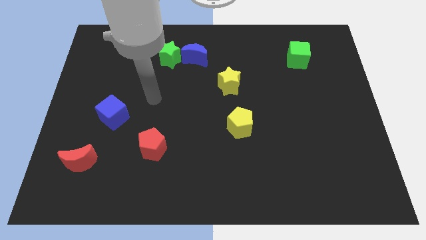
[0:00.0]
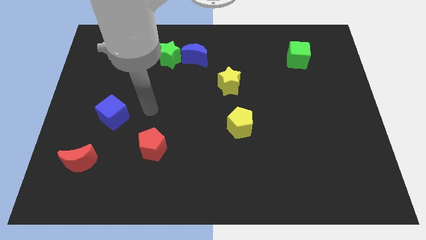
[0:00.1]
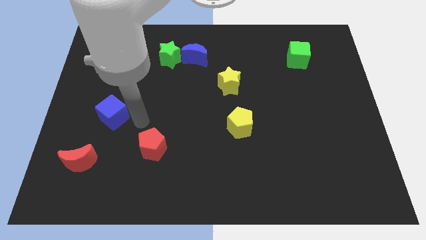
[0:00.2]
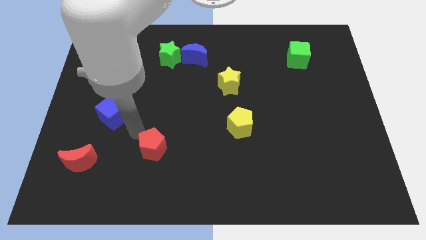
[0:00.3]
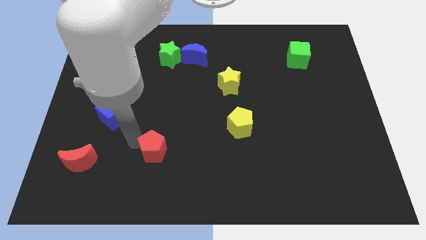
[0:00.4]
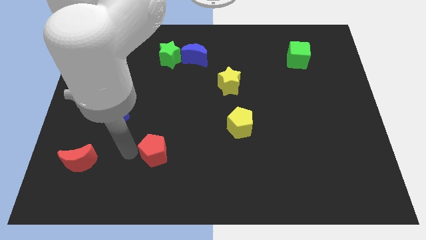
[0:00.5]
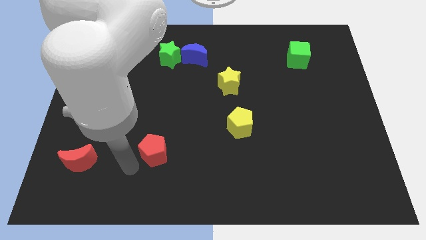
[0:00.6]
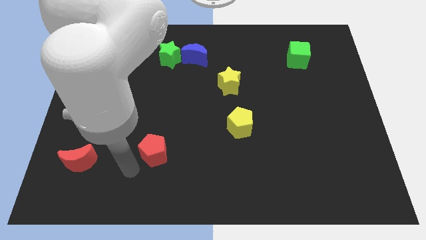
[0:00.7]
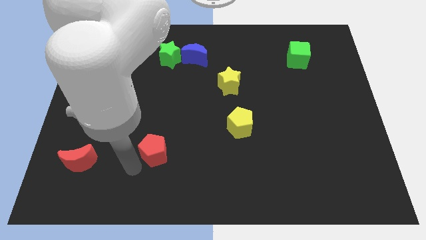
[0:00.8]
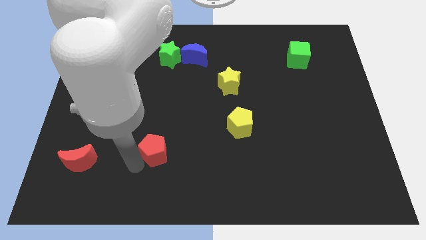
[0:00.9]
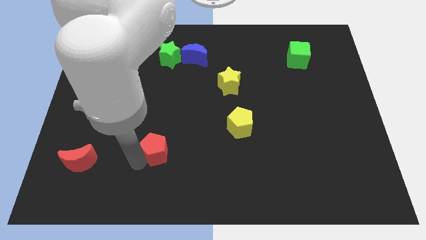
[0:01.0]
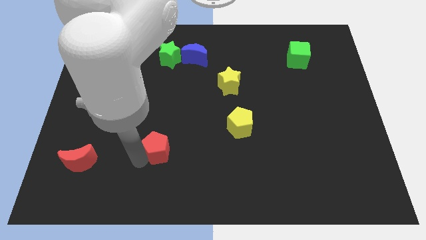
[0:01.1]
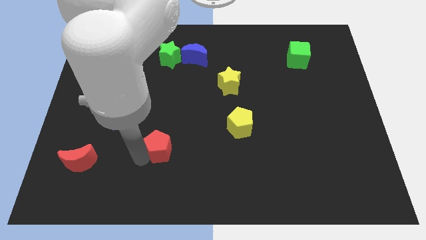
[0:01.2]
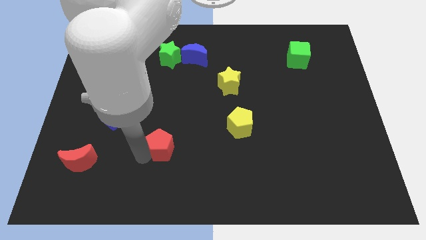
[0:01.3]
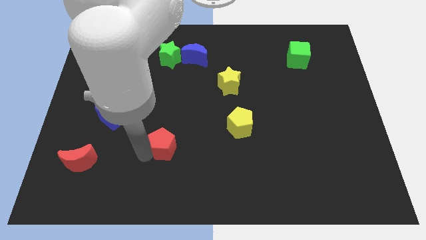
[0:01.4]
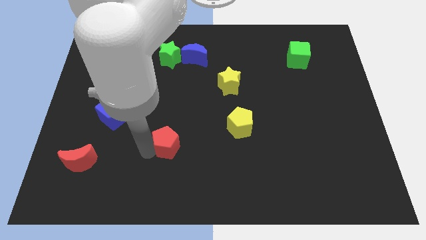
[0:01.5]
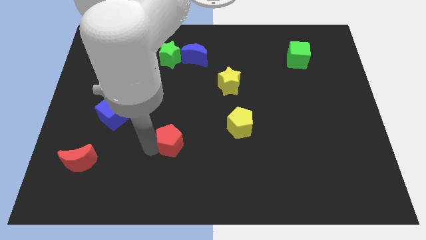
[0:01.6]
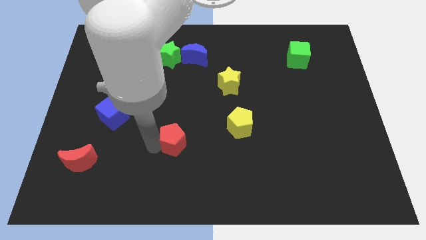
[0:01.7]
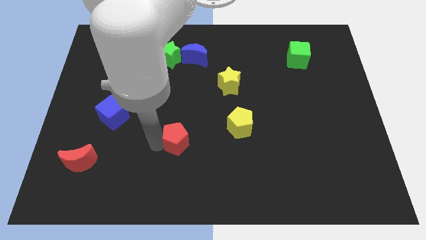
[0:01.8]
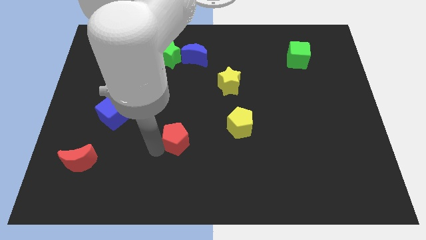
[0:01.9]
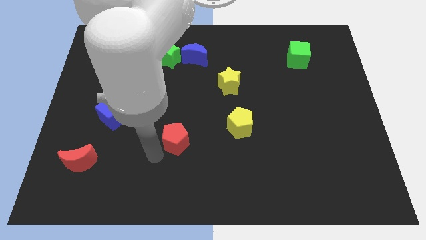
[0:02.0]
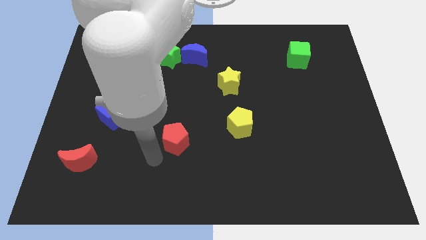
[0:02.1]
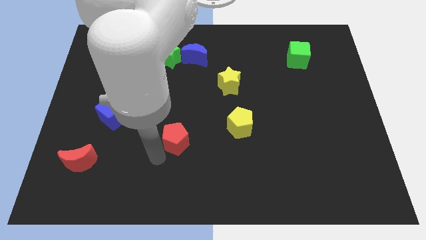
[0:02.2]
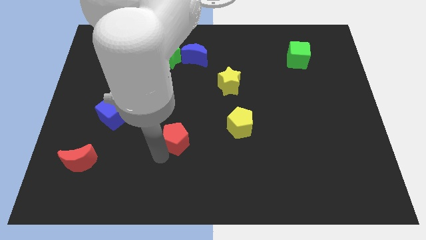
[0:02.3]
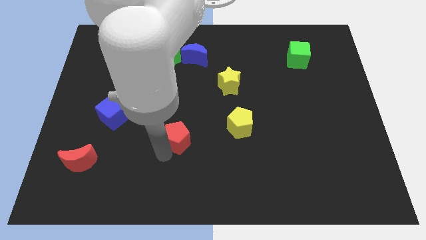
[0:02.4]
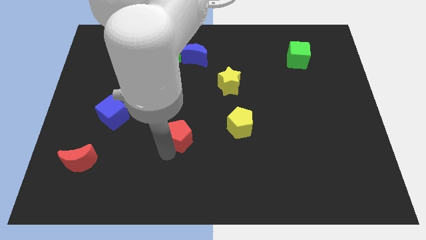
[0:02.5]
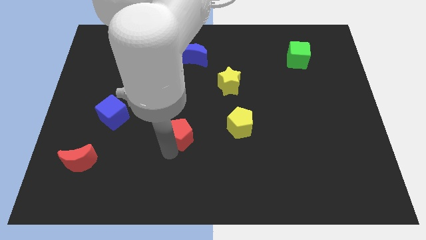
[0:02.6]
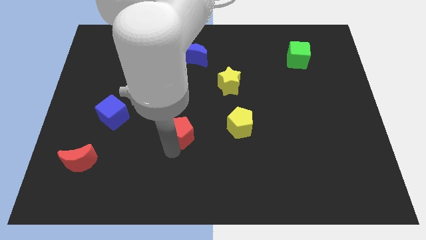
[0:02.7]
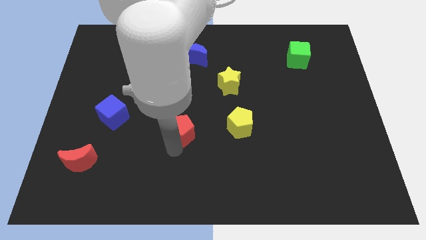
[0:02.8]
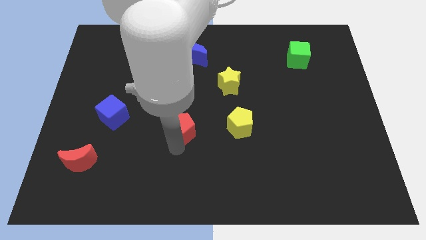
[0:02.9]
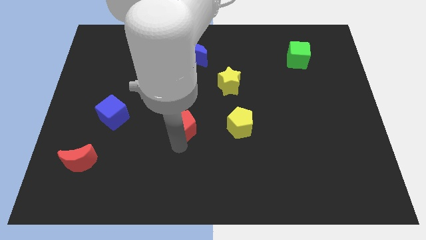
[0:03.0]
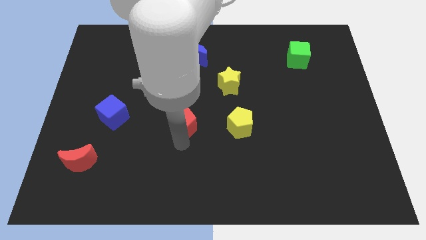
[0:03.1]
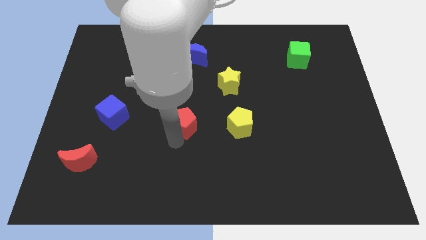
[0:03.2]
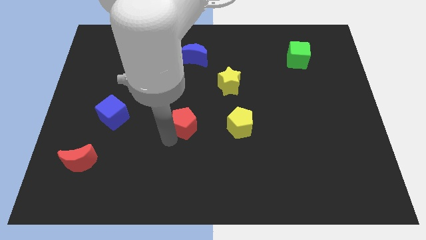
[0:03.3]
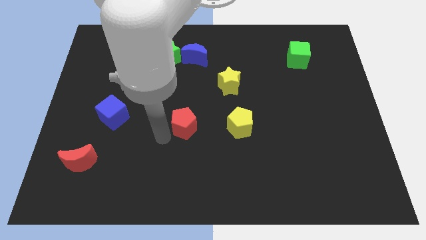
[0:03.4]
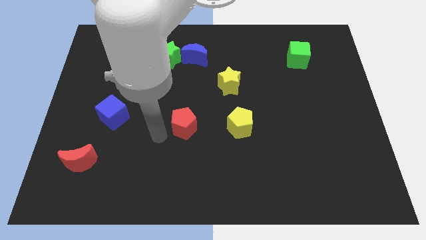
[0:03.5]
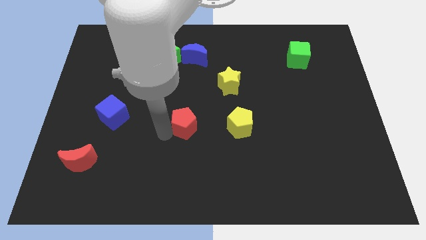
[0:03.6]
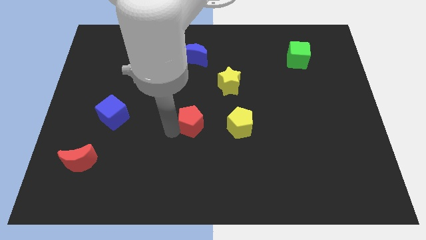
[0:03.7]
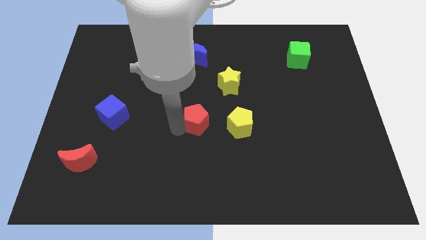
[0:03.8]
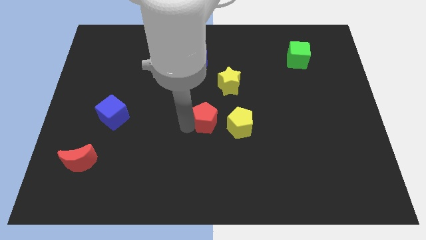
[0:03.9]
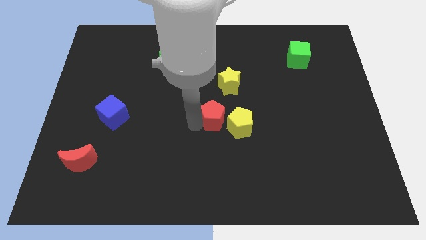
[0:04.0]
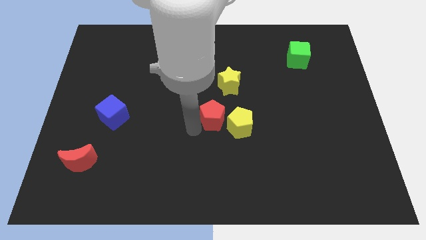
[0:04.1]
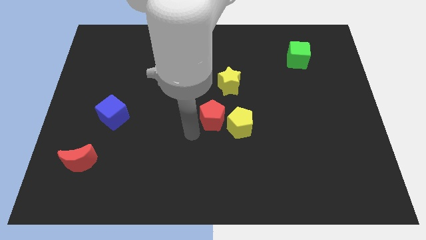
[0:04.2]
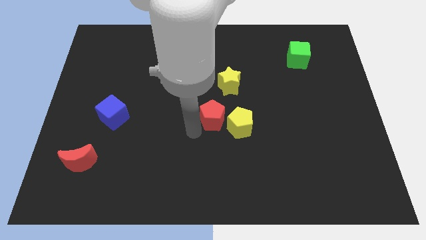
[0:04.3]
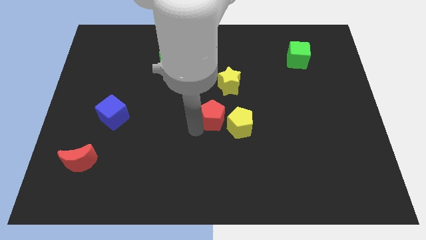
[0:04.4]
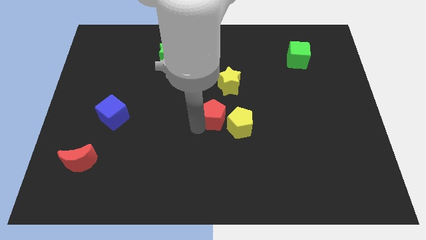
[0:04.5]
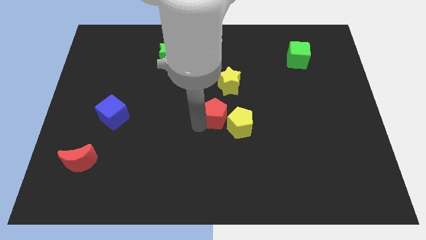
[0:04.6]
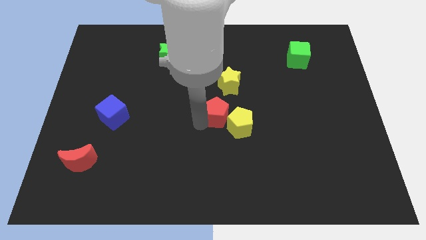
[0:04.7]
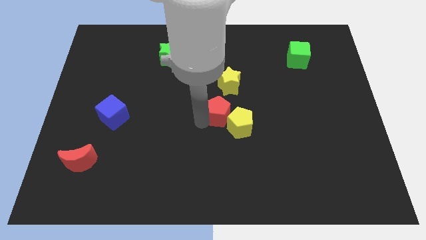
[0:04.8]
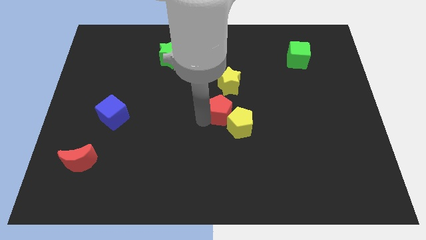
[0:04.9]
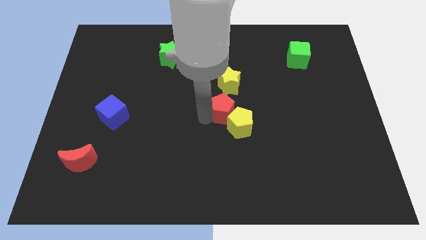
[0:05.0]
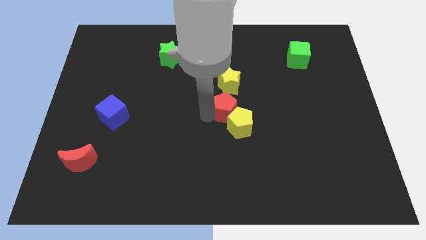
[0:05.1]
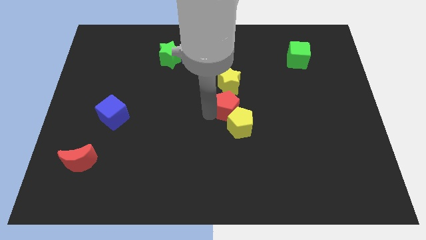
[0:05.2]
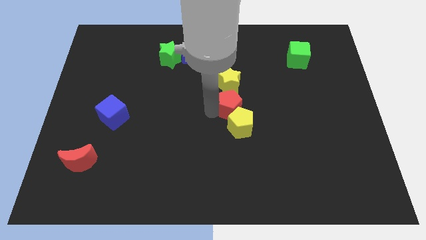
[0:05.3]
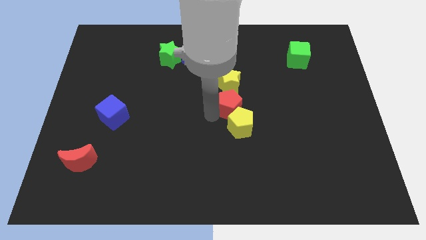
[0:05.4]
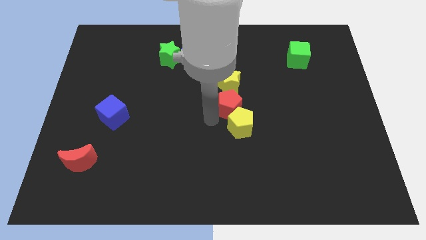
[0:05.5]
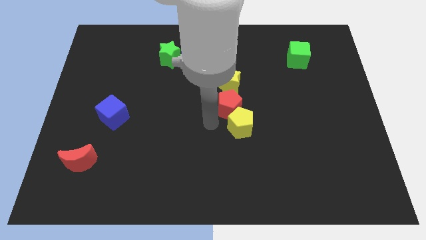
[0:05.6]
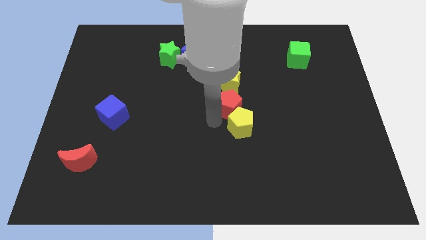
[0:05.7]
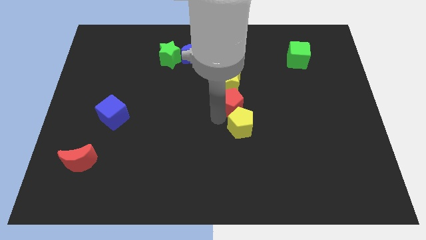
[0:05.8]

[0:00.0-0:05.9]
slide the red pentagon diagonally up and right

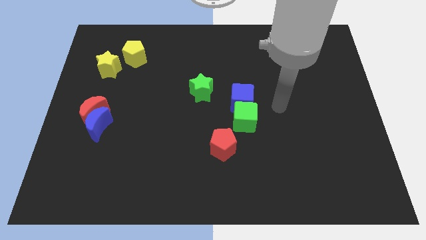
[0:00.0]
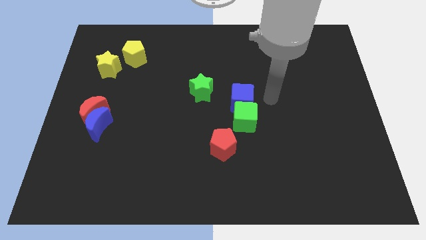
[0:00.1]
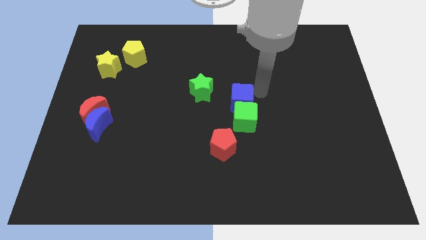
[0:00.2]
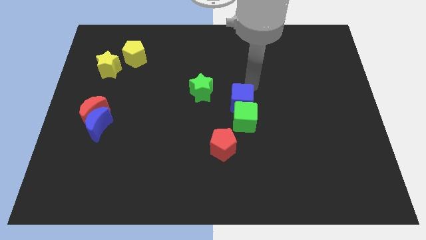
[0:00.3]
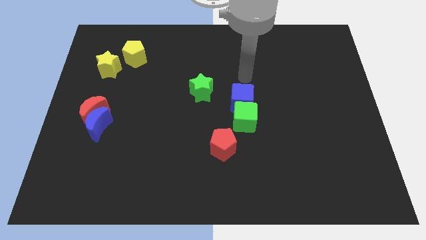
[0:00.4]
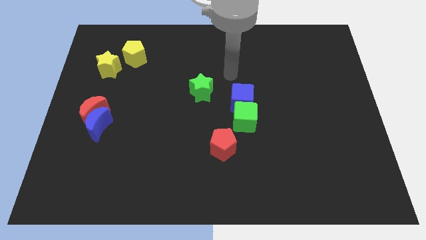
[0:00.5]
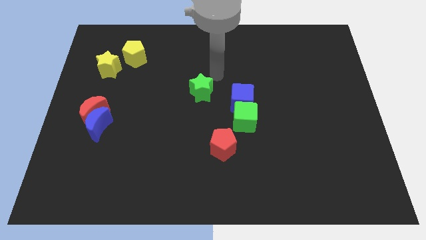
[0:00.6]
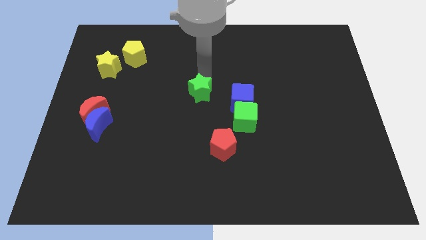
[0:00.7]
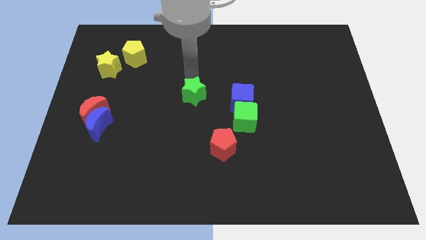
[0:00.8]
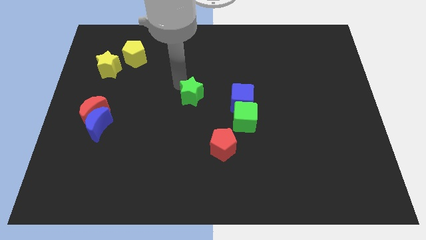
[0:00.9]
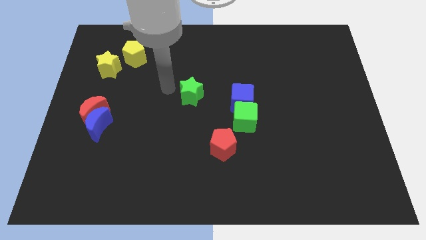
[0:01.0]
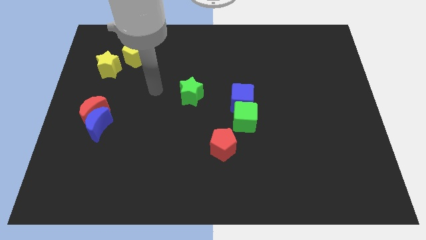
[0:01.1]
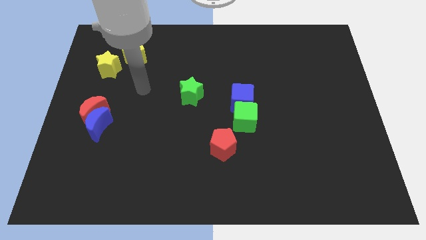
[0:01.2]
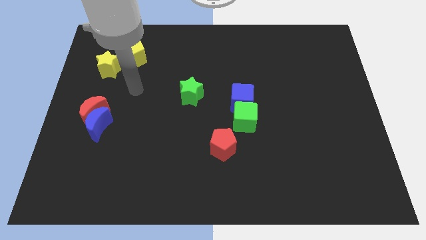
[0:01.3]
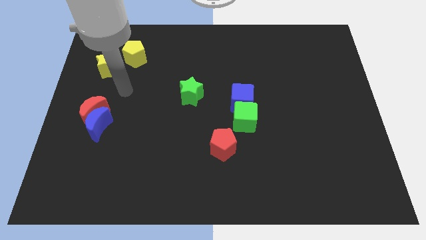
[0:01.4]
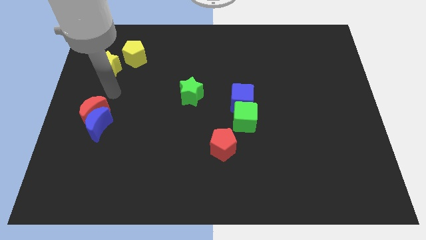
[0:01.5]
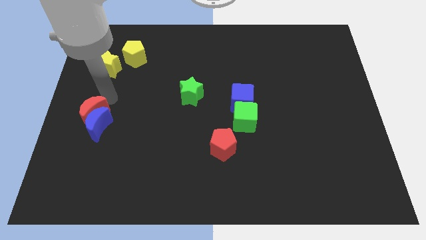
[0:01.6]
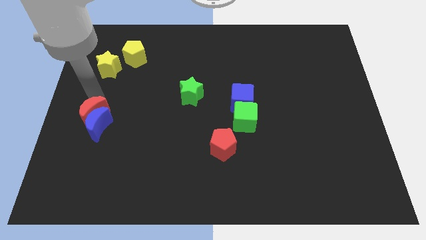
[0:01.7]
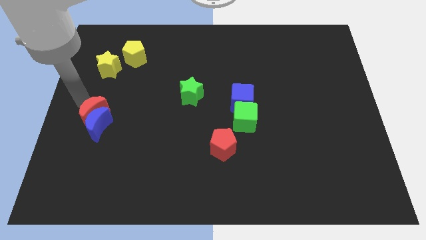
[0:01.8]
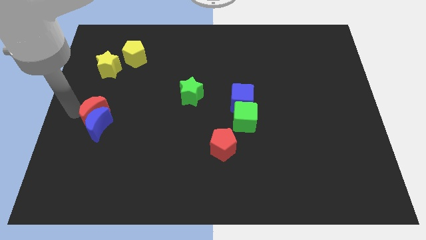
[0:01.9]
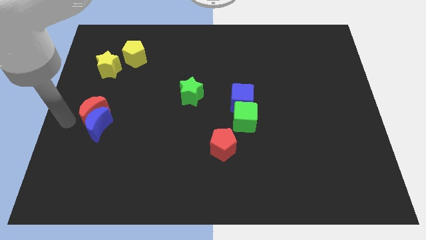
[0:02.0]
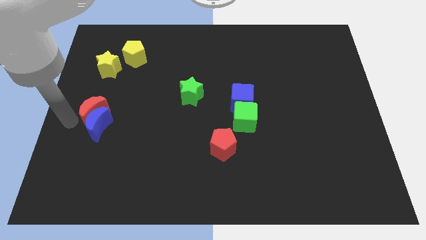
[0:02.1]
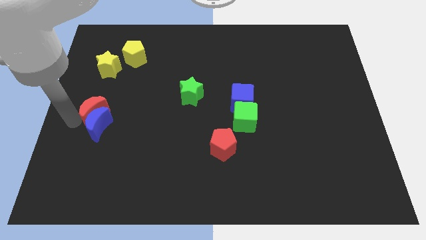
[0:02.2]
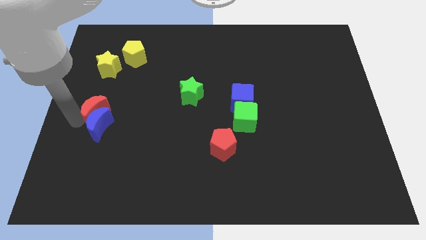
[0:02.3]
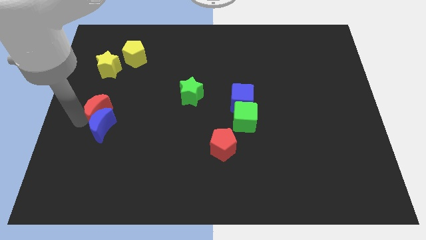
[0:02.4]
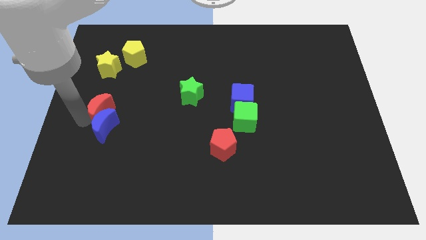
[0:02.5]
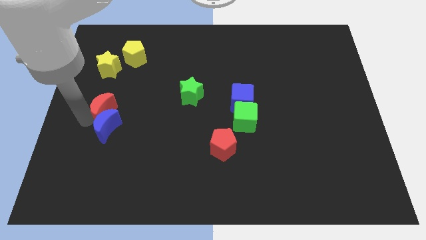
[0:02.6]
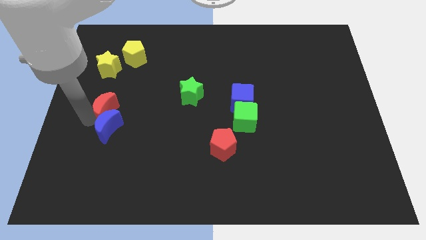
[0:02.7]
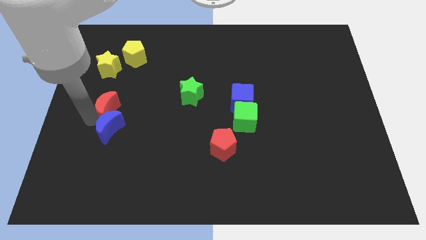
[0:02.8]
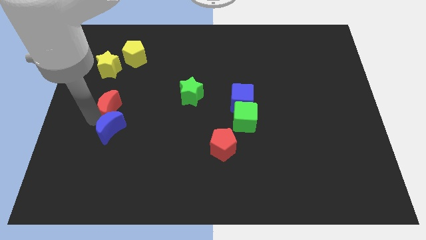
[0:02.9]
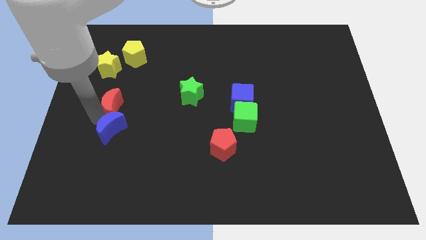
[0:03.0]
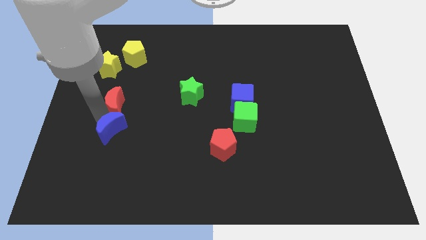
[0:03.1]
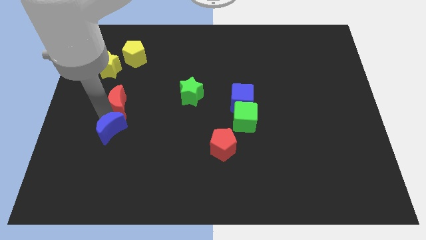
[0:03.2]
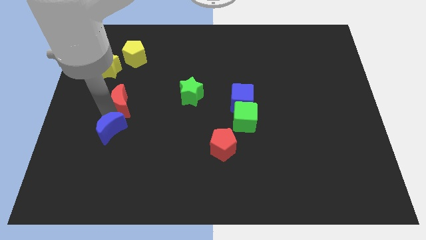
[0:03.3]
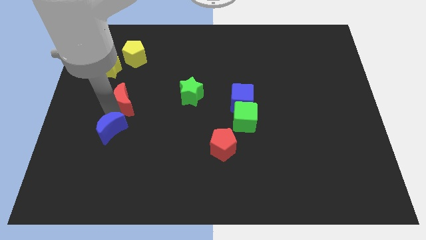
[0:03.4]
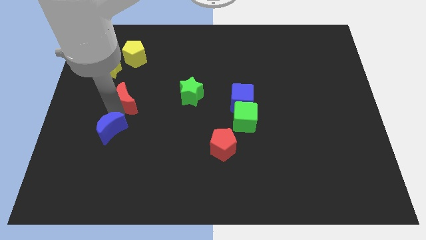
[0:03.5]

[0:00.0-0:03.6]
slightly push the red moon diagonally upwards and right
